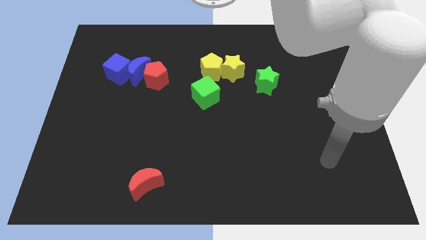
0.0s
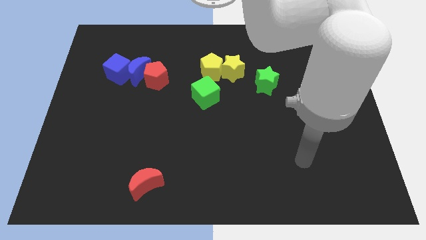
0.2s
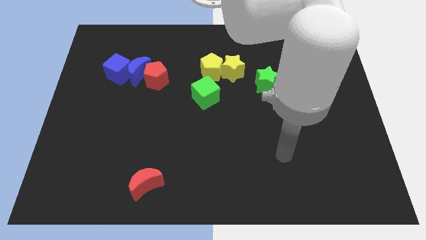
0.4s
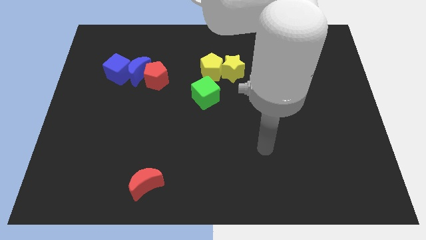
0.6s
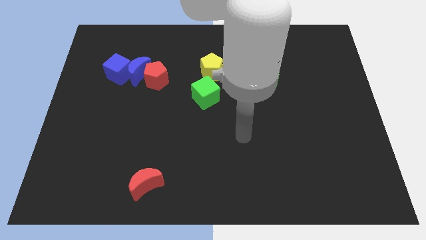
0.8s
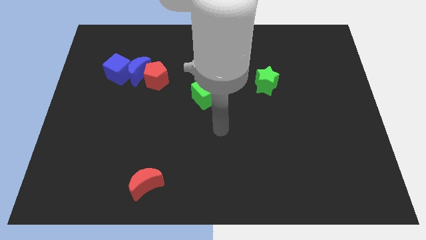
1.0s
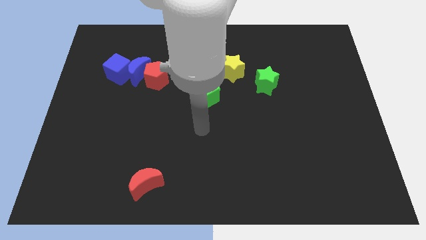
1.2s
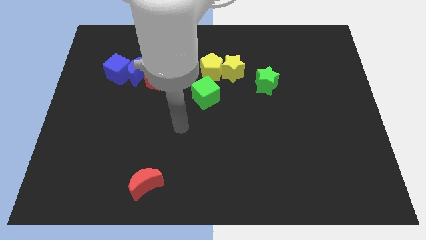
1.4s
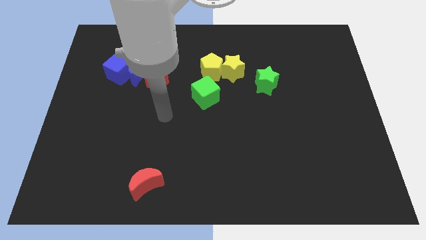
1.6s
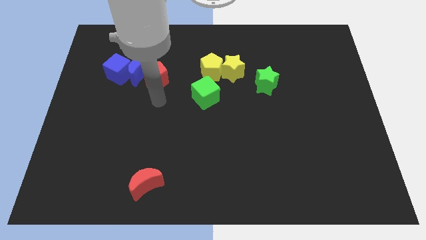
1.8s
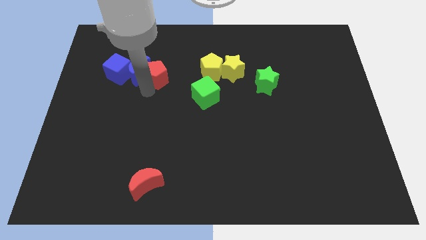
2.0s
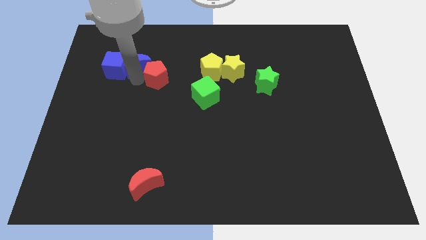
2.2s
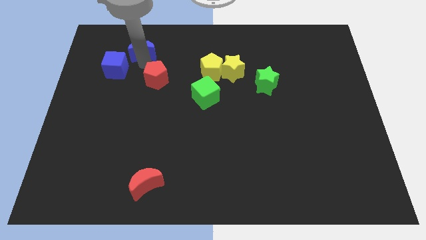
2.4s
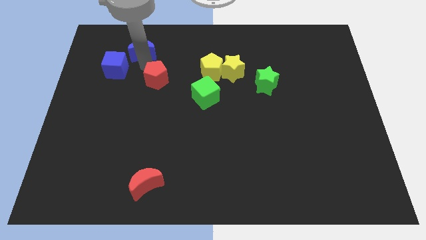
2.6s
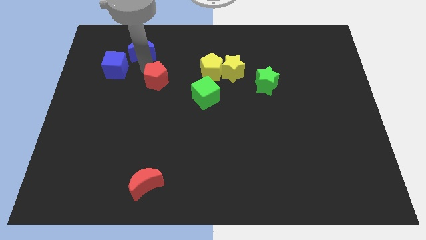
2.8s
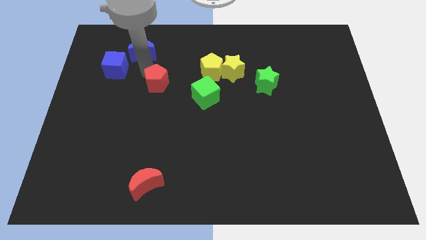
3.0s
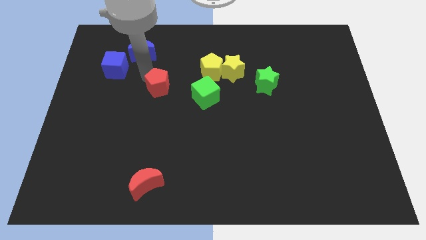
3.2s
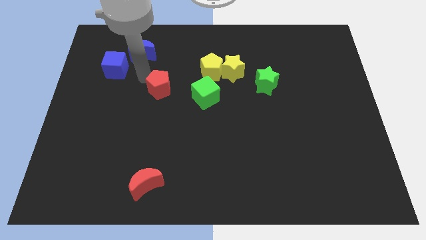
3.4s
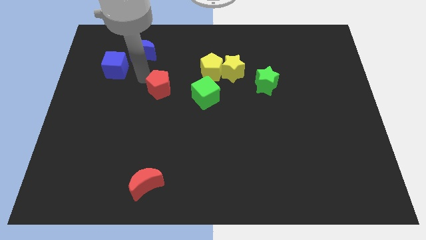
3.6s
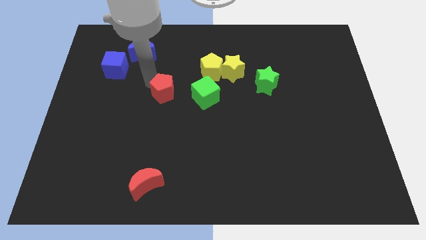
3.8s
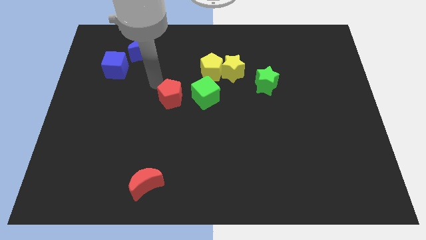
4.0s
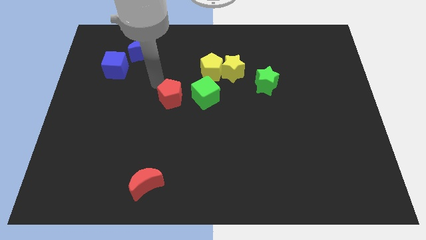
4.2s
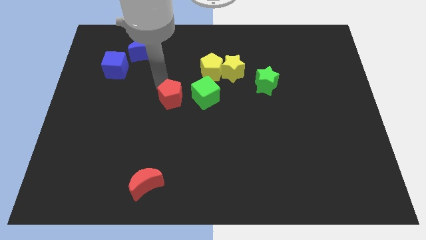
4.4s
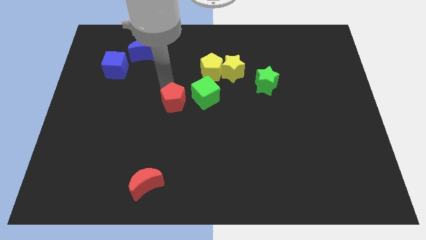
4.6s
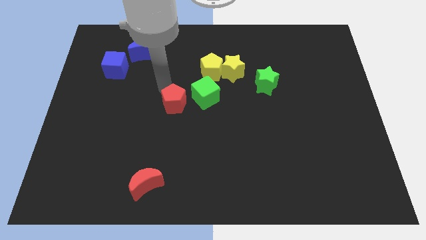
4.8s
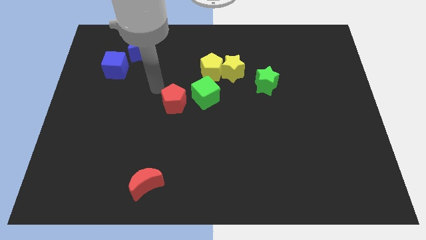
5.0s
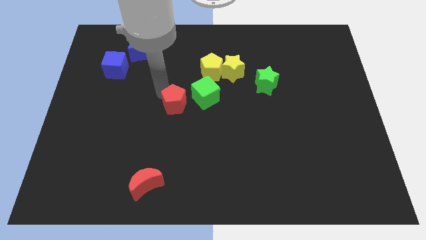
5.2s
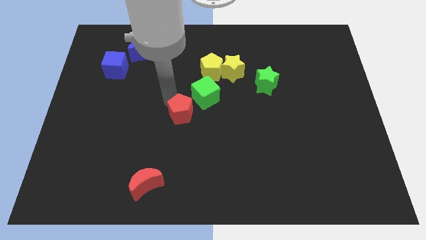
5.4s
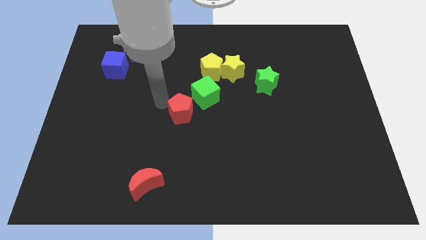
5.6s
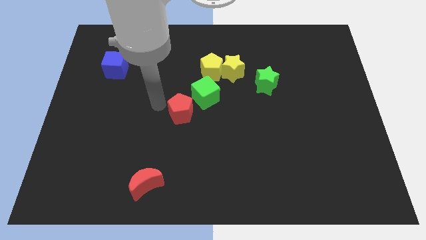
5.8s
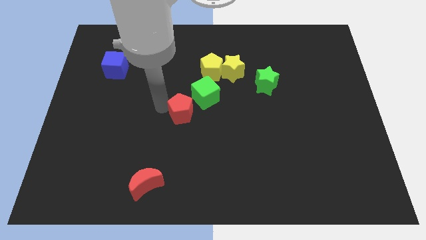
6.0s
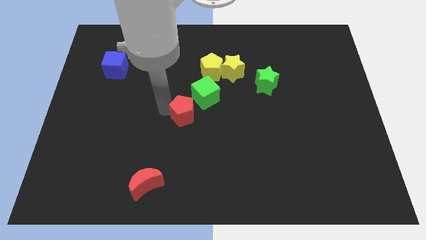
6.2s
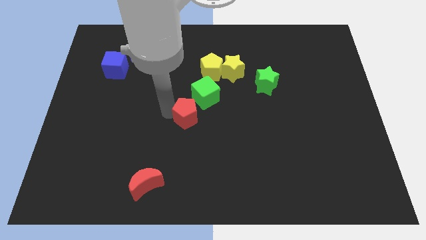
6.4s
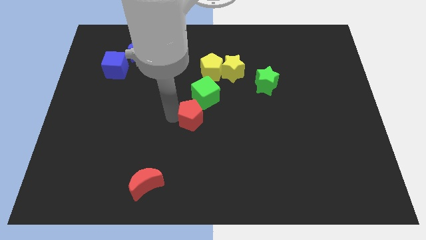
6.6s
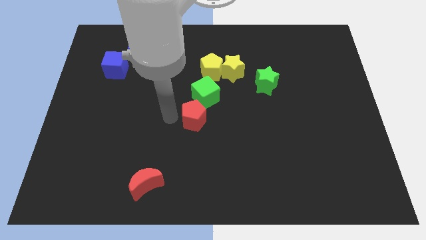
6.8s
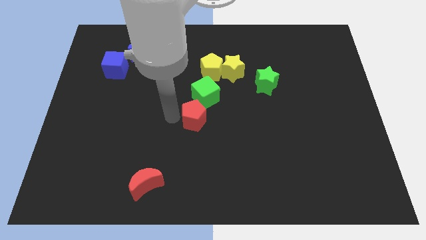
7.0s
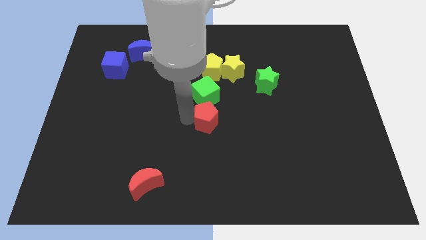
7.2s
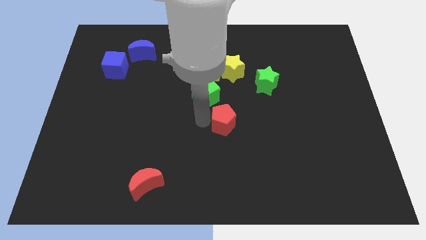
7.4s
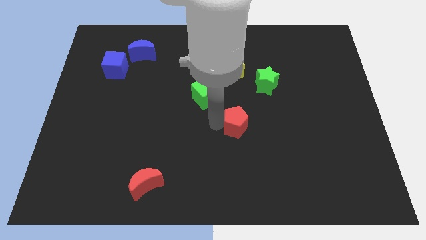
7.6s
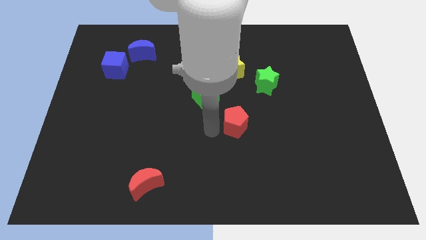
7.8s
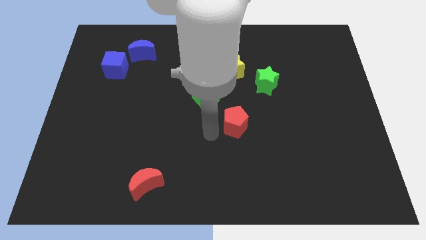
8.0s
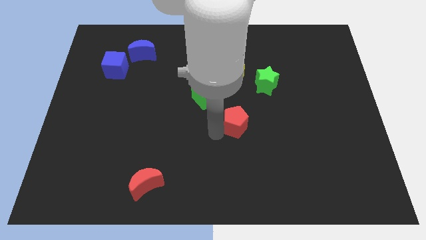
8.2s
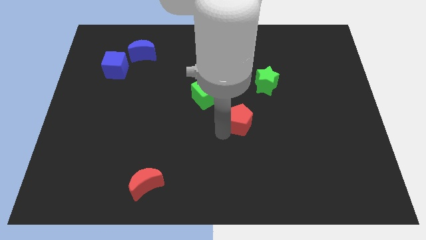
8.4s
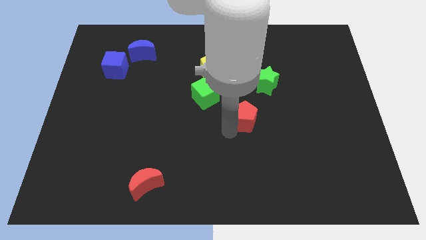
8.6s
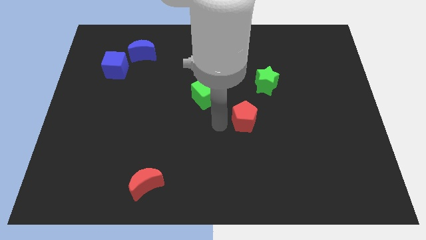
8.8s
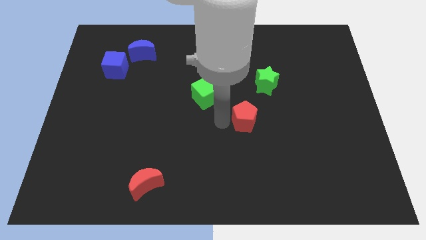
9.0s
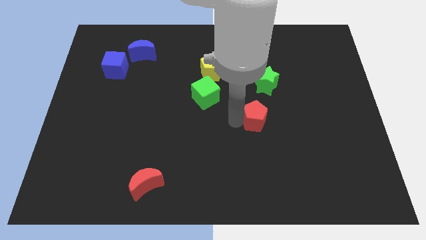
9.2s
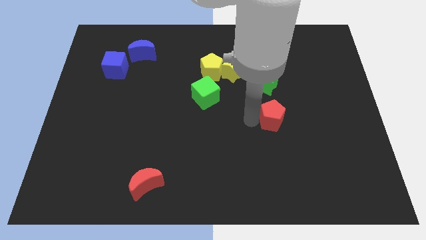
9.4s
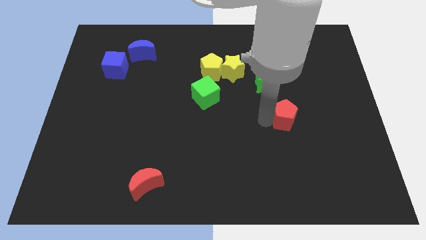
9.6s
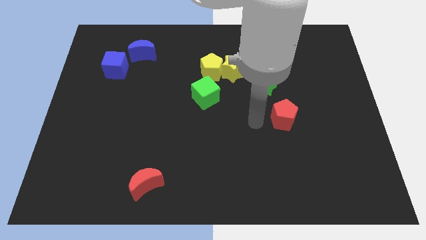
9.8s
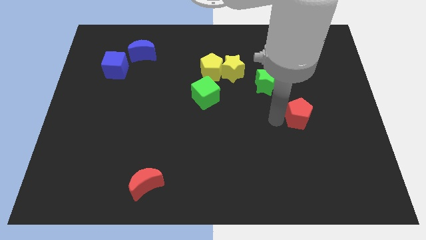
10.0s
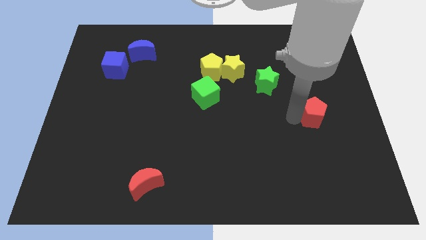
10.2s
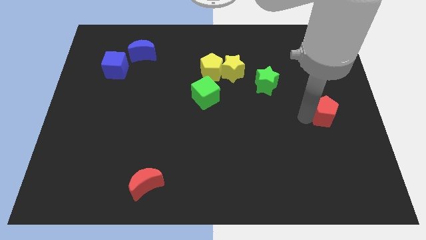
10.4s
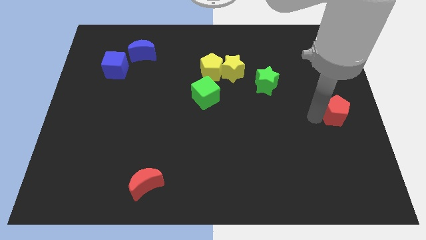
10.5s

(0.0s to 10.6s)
push the red pentagon to the center right

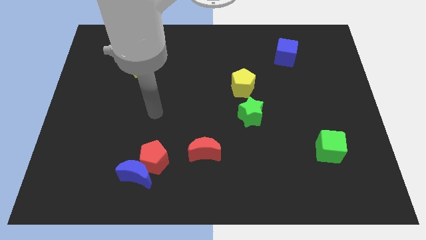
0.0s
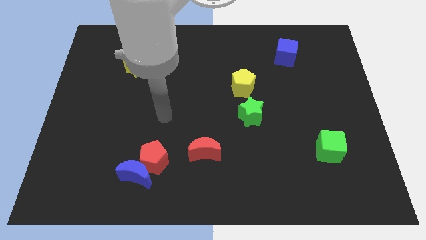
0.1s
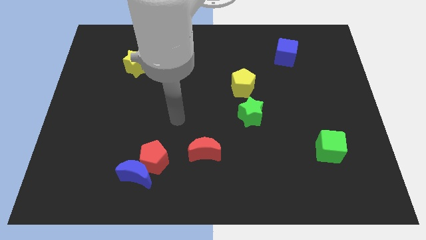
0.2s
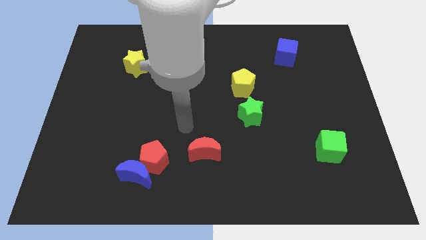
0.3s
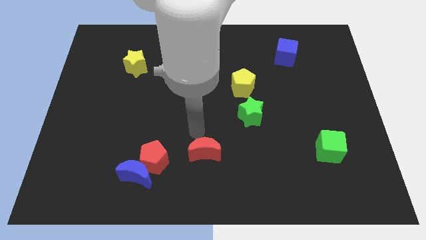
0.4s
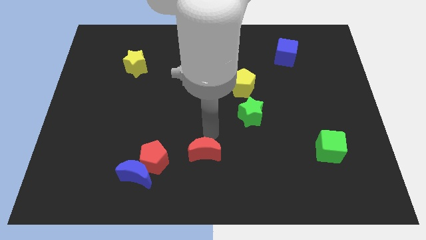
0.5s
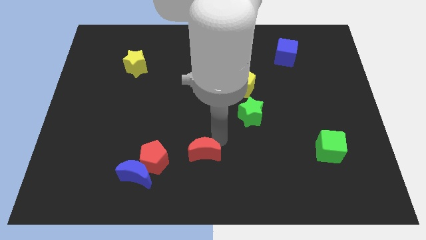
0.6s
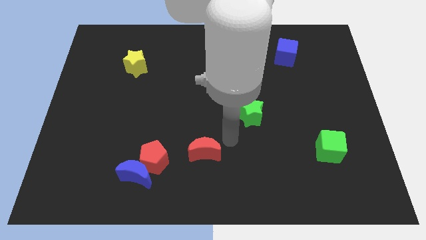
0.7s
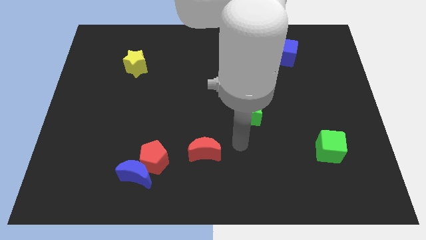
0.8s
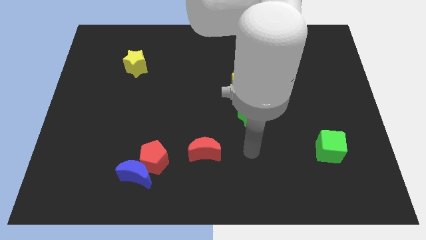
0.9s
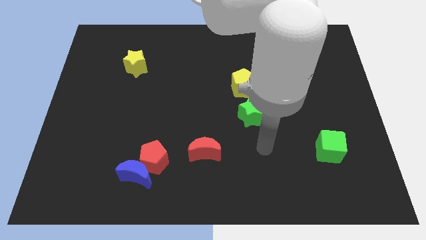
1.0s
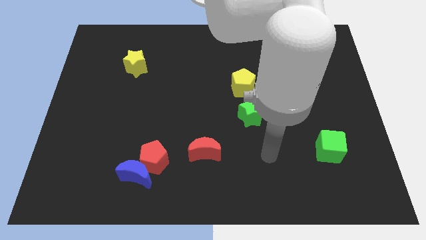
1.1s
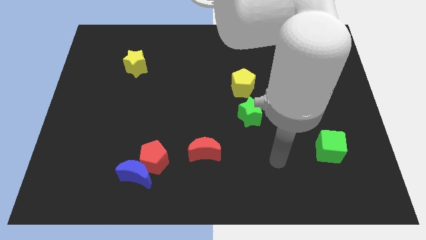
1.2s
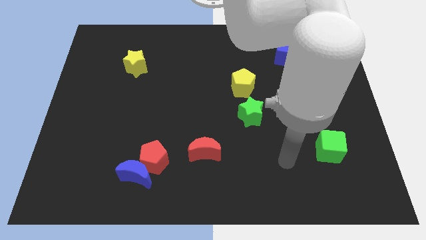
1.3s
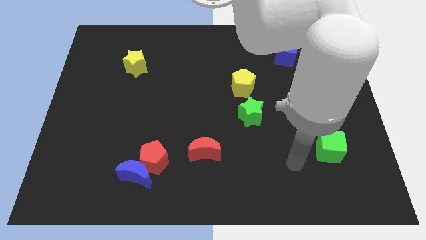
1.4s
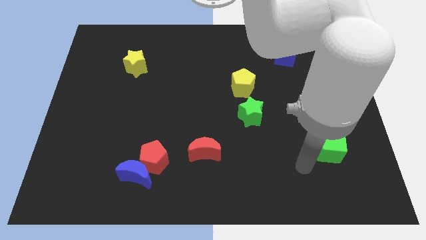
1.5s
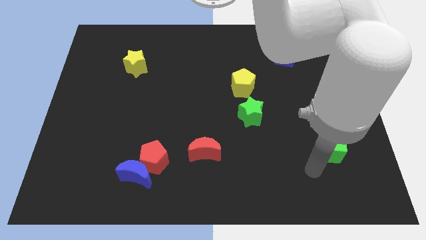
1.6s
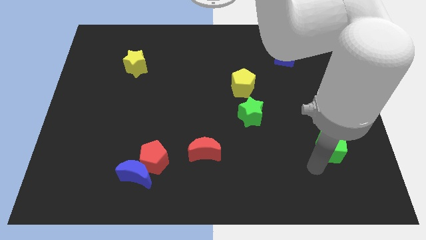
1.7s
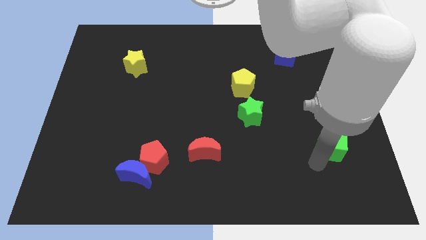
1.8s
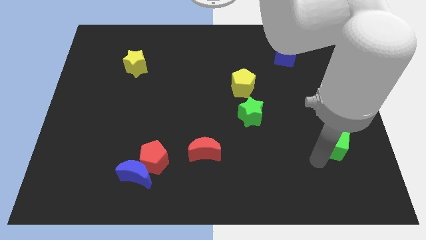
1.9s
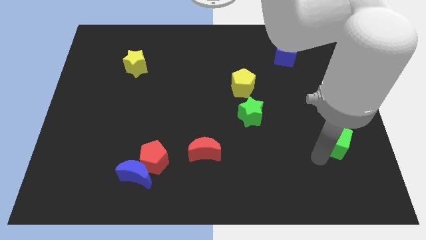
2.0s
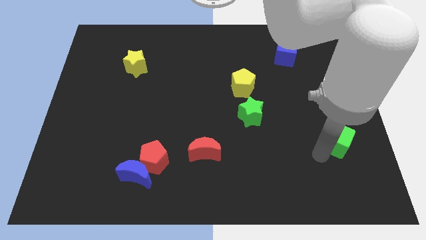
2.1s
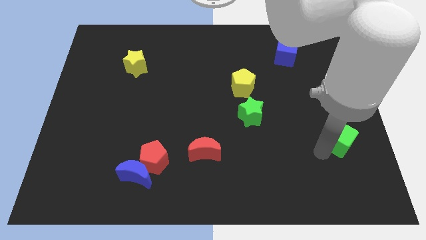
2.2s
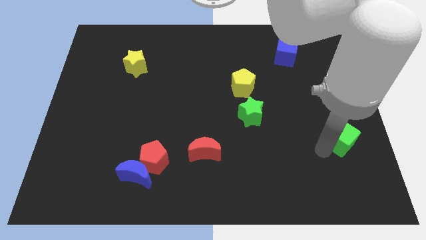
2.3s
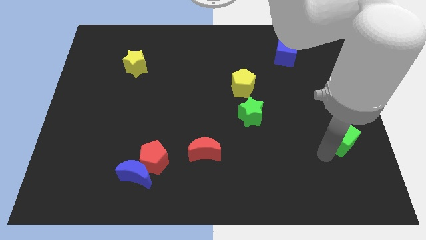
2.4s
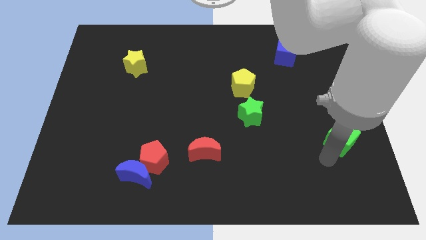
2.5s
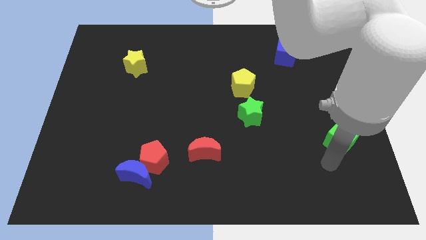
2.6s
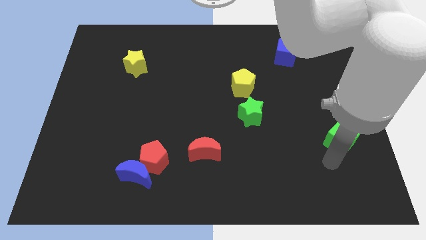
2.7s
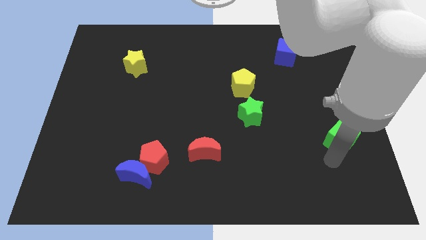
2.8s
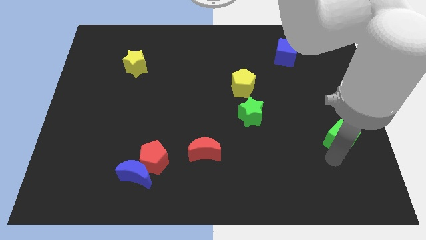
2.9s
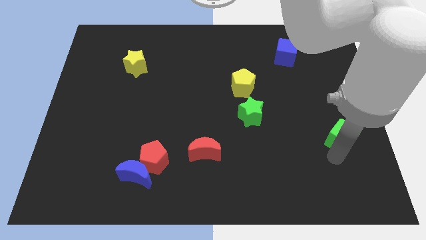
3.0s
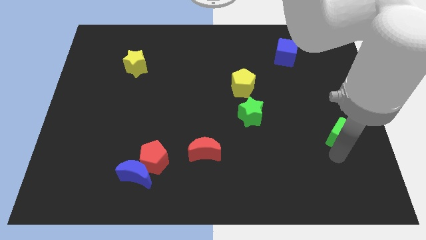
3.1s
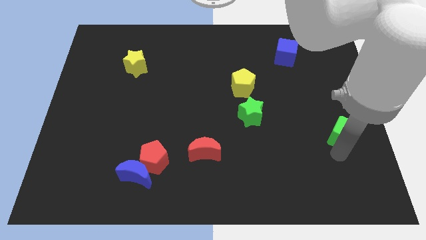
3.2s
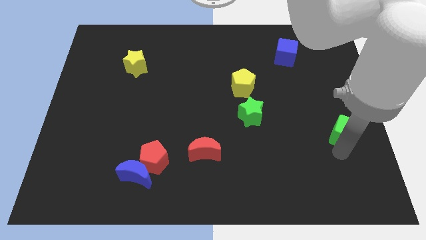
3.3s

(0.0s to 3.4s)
put the green cube to the right side of the board
